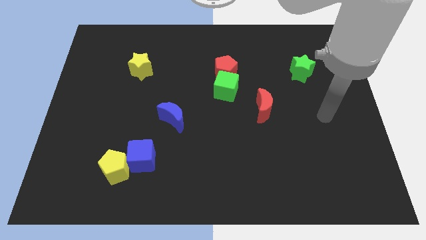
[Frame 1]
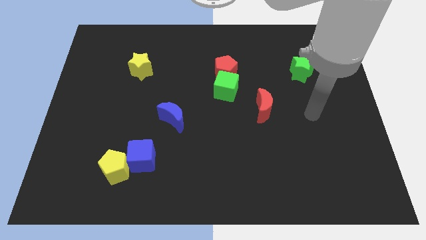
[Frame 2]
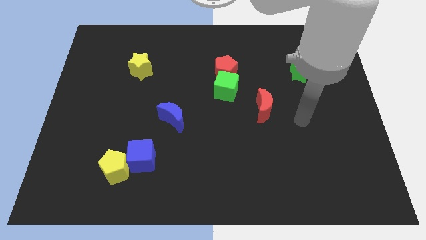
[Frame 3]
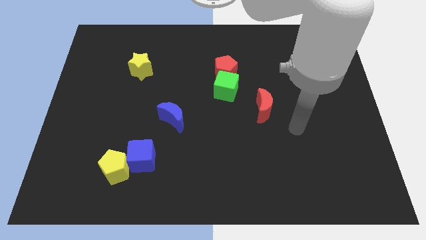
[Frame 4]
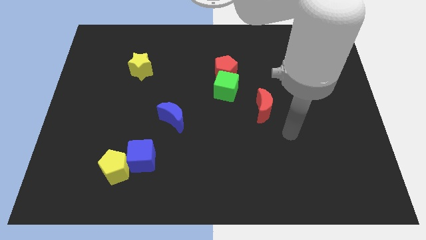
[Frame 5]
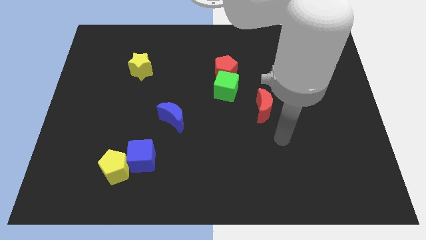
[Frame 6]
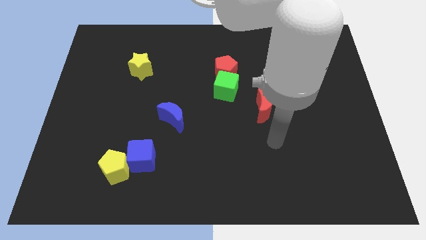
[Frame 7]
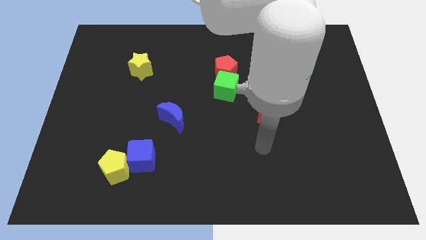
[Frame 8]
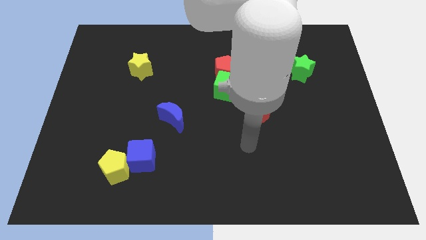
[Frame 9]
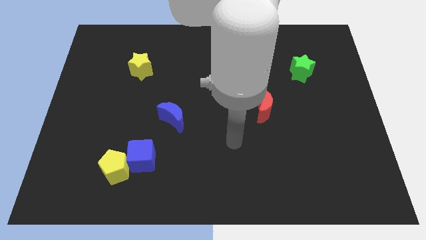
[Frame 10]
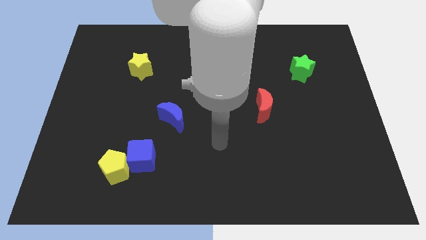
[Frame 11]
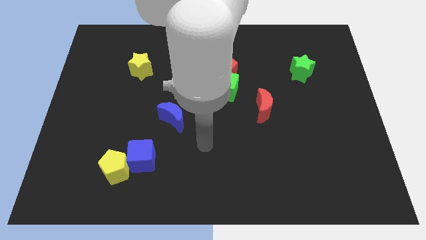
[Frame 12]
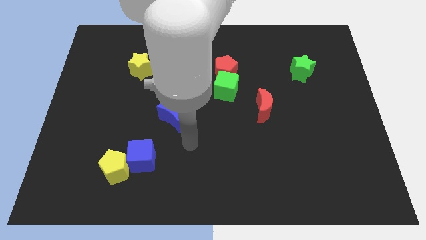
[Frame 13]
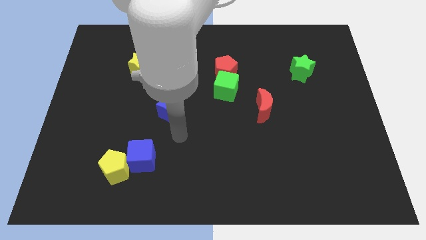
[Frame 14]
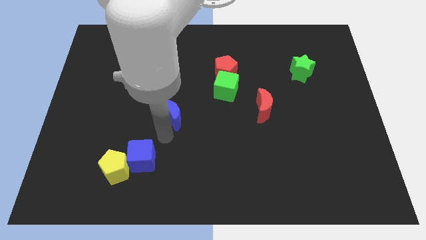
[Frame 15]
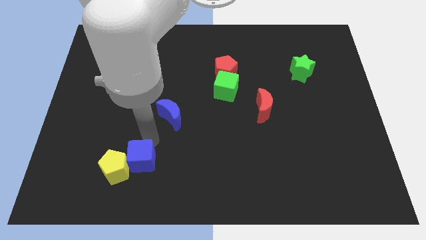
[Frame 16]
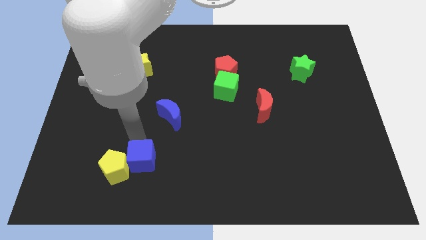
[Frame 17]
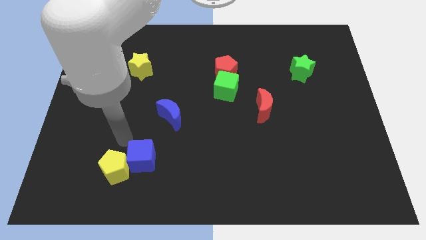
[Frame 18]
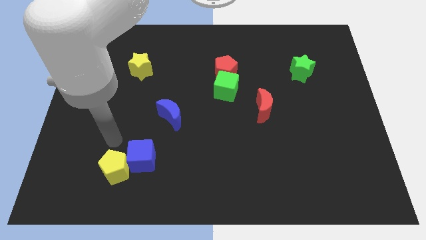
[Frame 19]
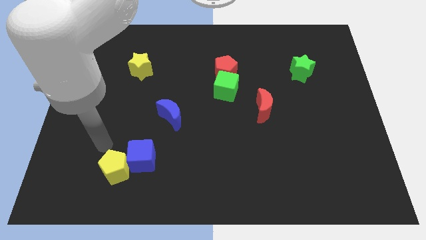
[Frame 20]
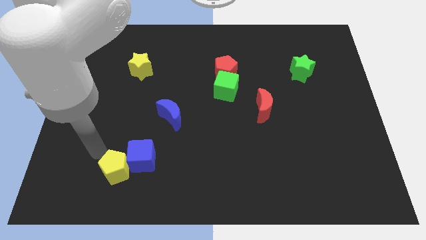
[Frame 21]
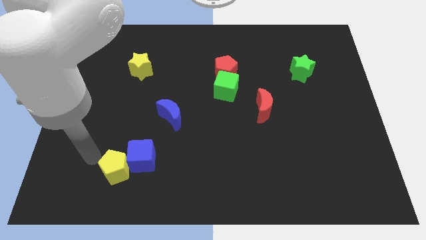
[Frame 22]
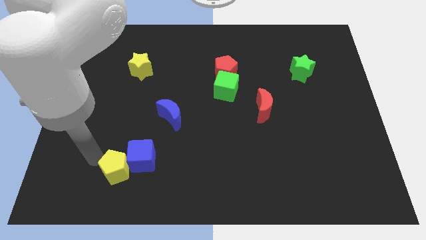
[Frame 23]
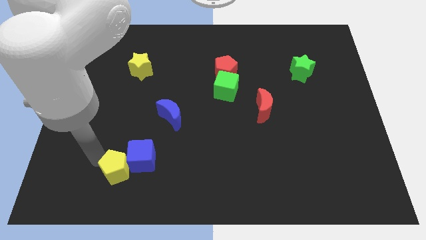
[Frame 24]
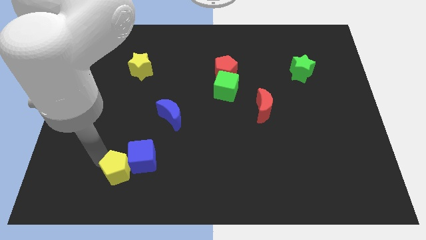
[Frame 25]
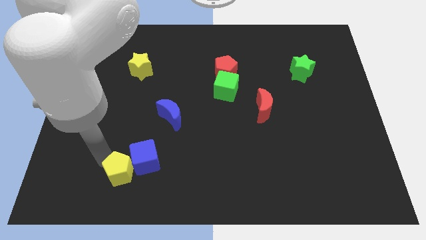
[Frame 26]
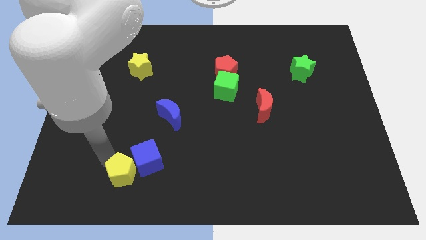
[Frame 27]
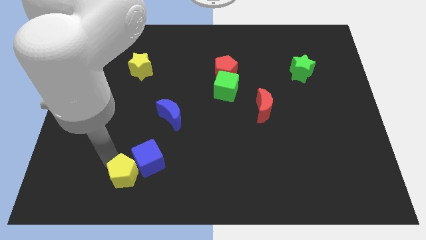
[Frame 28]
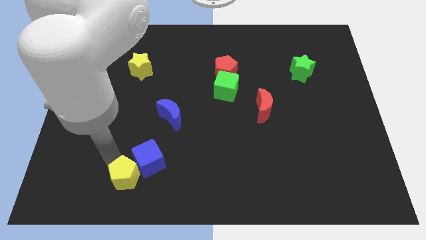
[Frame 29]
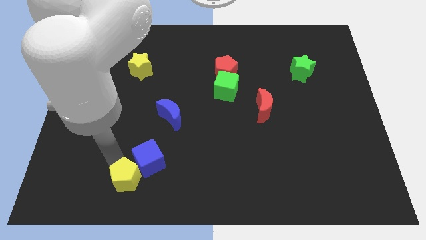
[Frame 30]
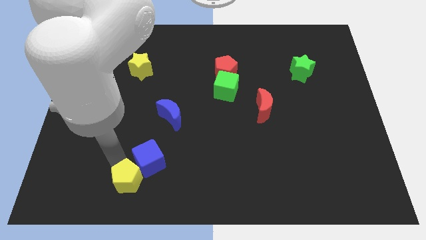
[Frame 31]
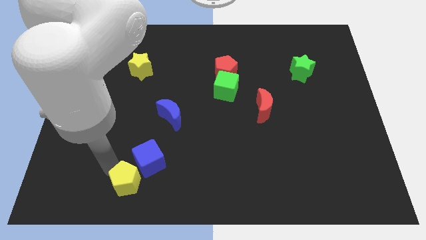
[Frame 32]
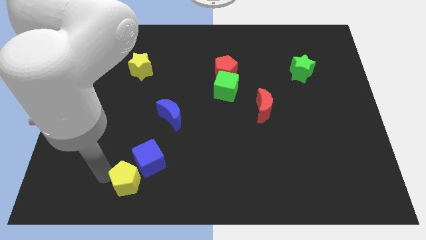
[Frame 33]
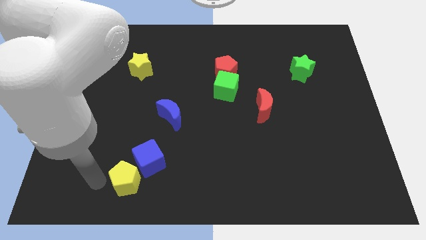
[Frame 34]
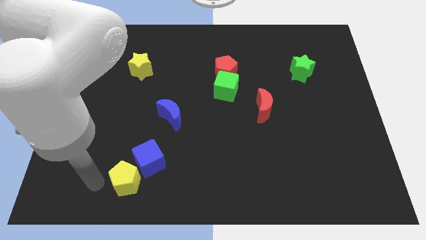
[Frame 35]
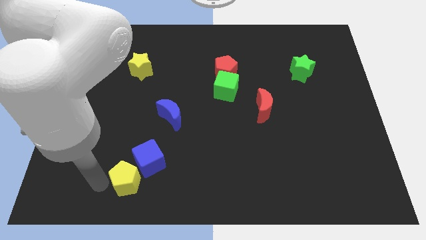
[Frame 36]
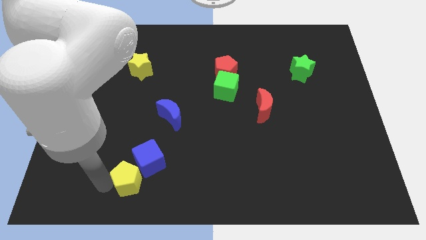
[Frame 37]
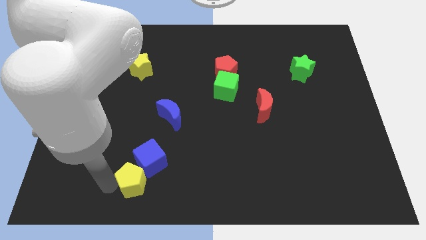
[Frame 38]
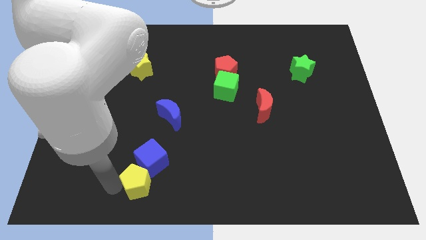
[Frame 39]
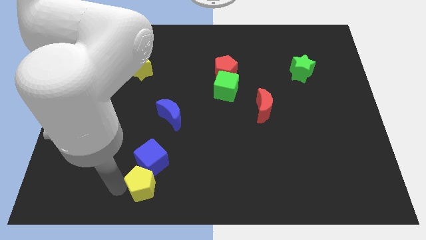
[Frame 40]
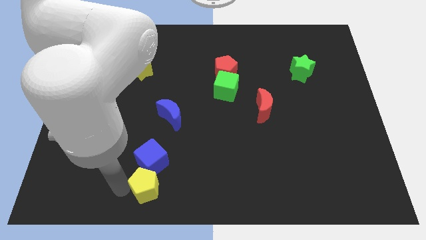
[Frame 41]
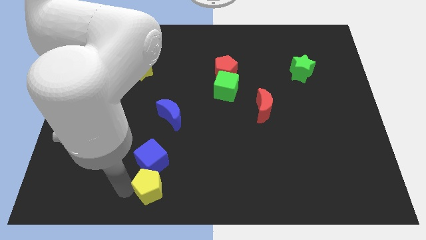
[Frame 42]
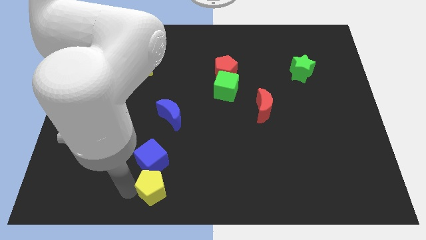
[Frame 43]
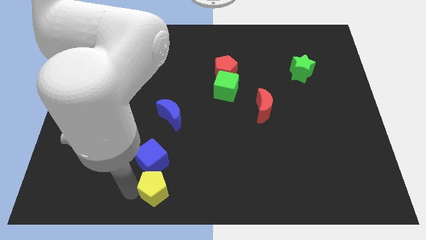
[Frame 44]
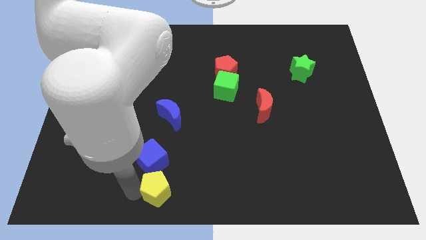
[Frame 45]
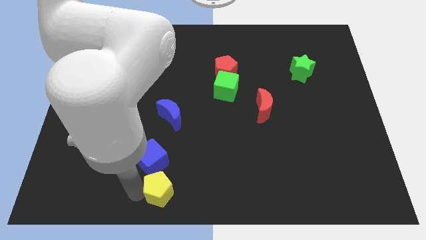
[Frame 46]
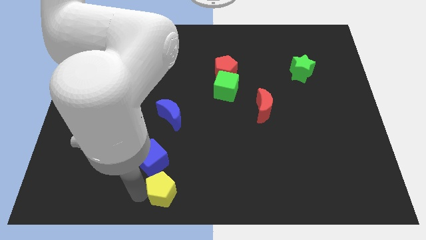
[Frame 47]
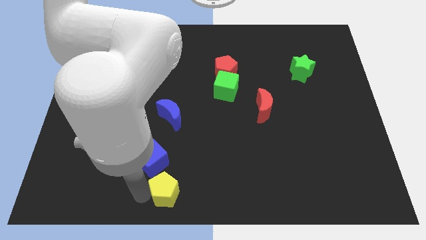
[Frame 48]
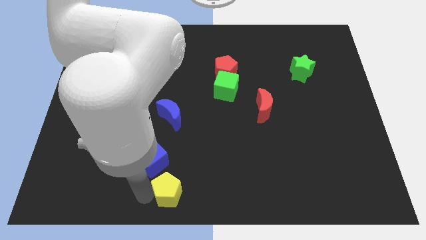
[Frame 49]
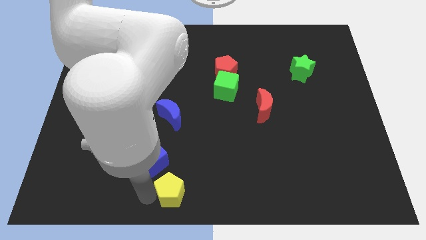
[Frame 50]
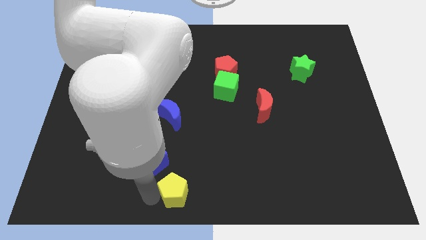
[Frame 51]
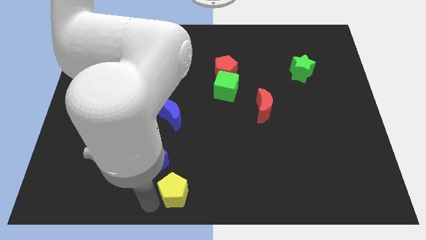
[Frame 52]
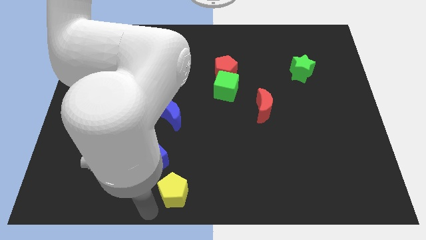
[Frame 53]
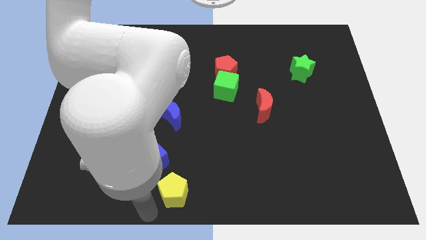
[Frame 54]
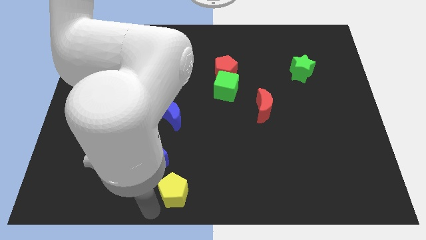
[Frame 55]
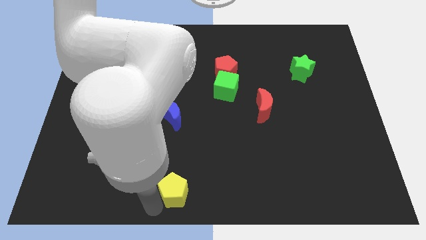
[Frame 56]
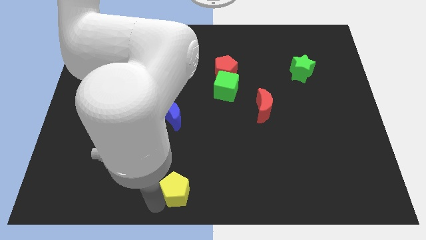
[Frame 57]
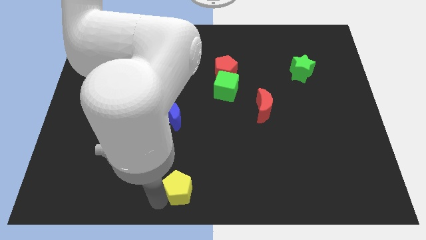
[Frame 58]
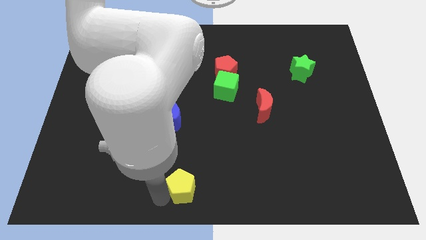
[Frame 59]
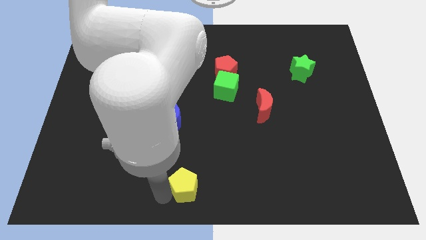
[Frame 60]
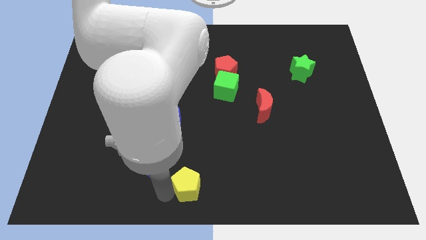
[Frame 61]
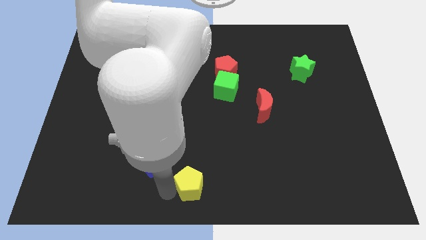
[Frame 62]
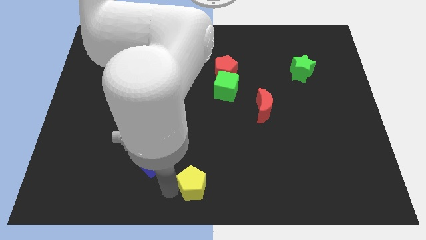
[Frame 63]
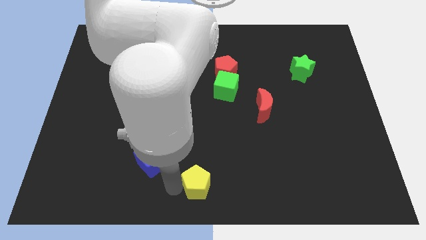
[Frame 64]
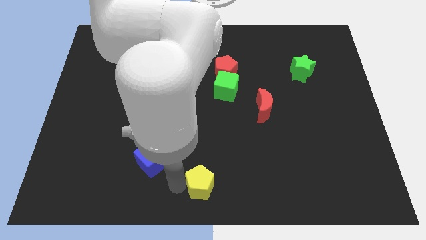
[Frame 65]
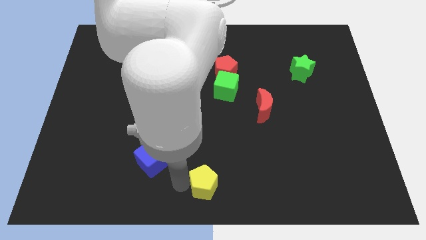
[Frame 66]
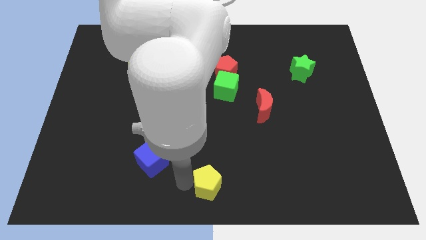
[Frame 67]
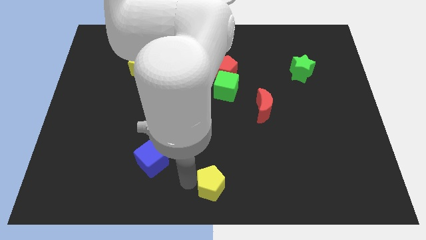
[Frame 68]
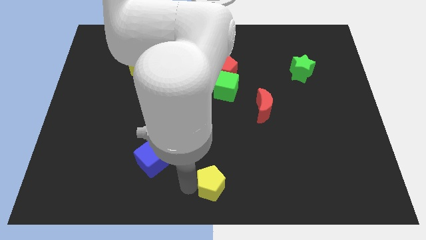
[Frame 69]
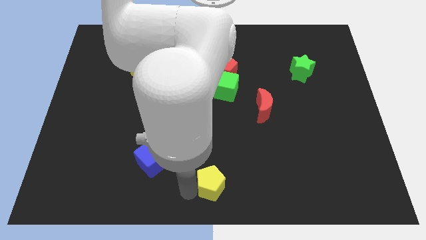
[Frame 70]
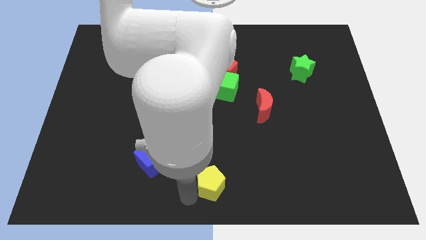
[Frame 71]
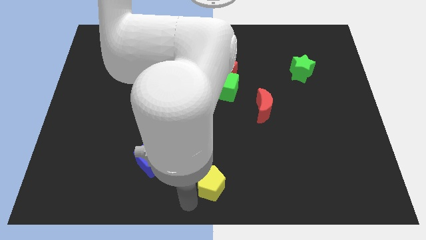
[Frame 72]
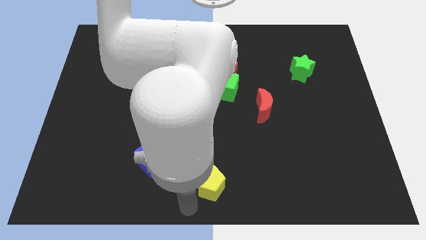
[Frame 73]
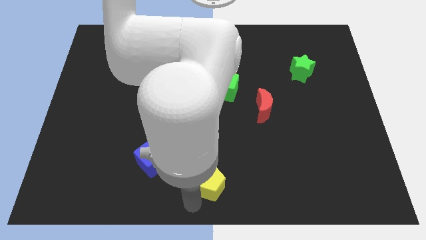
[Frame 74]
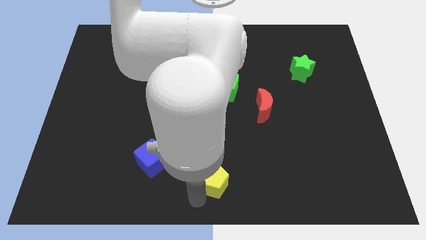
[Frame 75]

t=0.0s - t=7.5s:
push the yellow pentagon right

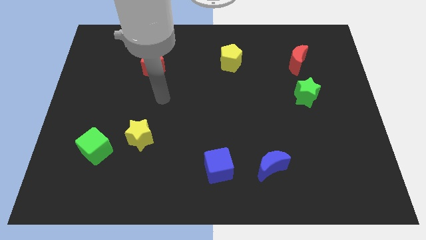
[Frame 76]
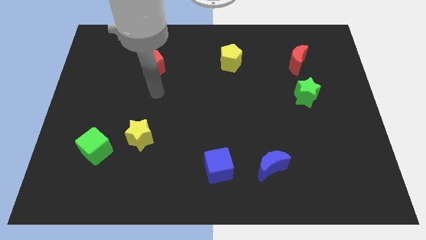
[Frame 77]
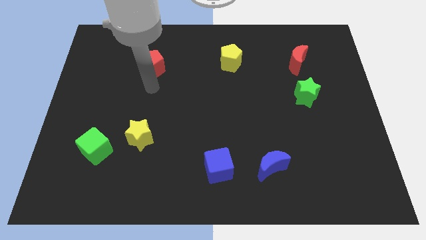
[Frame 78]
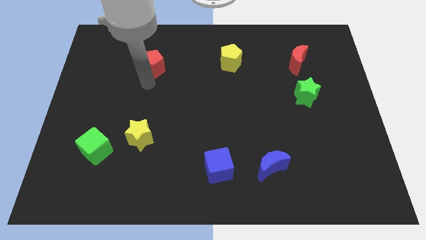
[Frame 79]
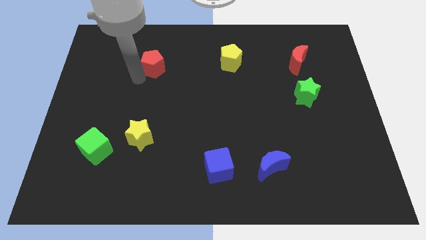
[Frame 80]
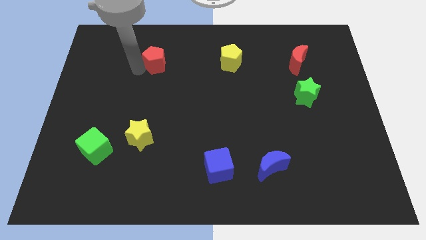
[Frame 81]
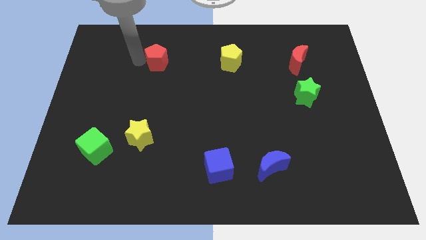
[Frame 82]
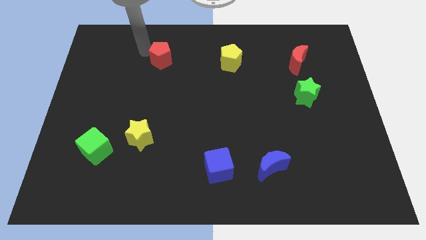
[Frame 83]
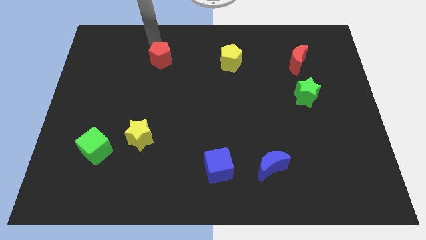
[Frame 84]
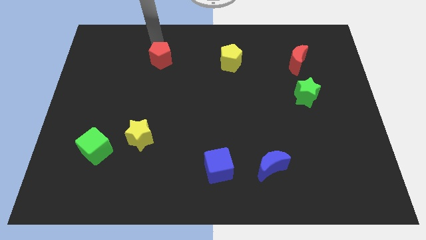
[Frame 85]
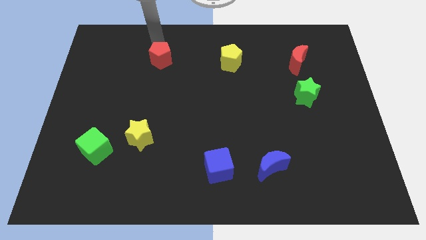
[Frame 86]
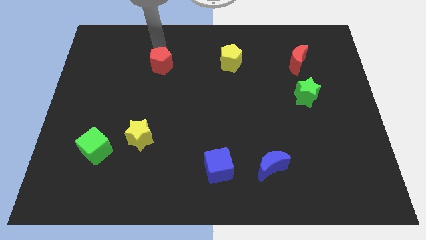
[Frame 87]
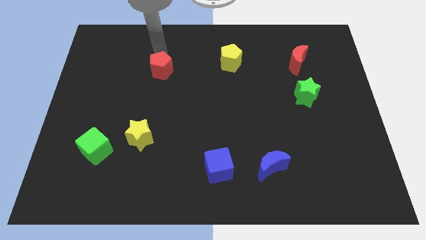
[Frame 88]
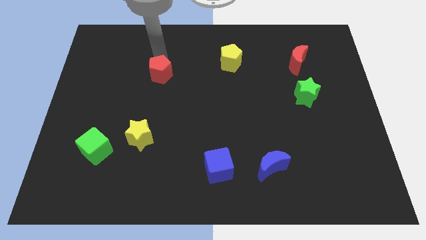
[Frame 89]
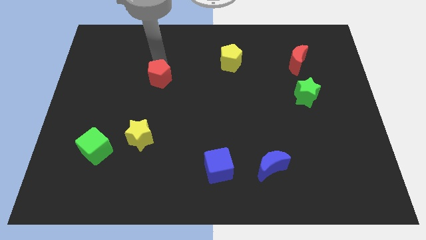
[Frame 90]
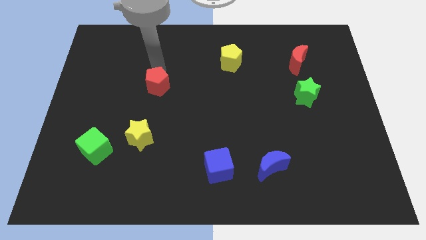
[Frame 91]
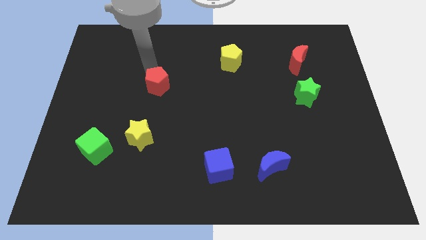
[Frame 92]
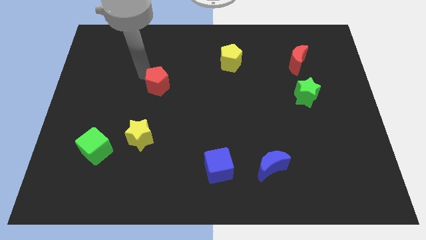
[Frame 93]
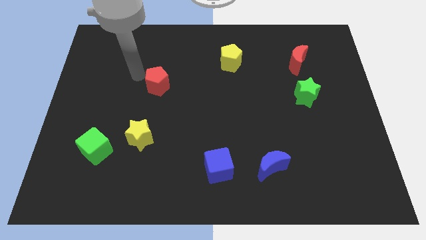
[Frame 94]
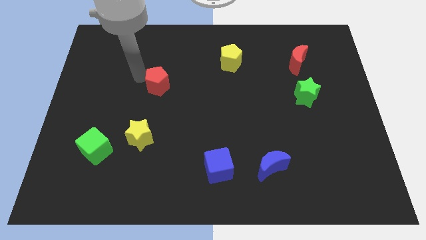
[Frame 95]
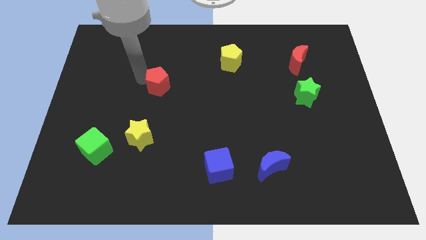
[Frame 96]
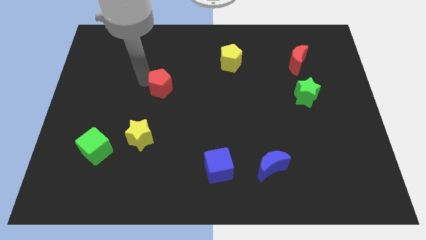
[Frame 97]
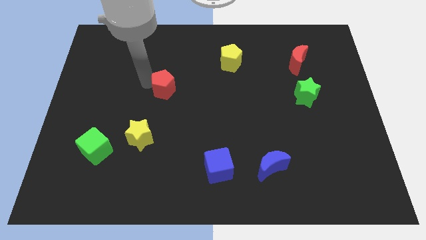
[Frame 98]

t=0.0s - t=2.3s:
slightly push the red pentagon down and right
